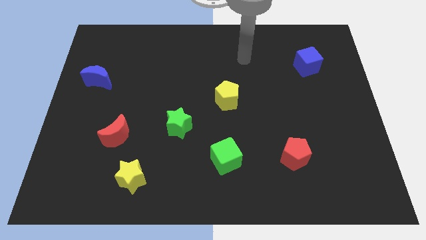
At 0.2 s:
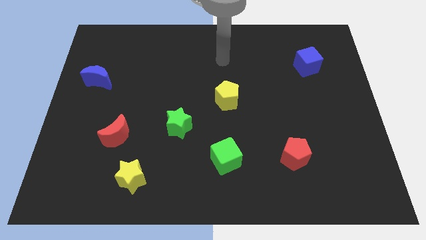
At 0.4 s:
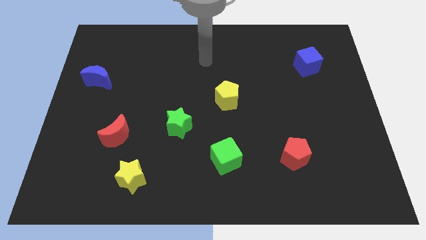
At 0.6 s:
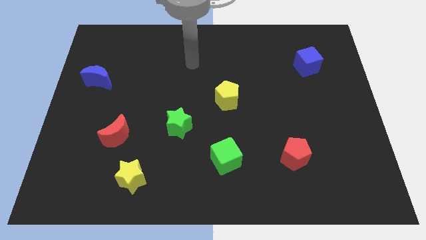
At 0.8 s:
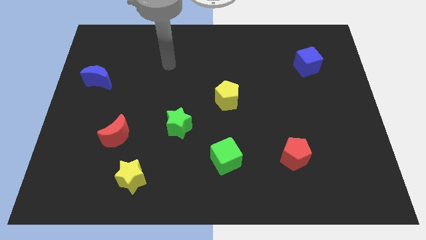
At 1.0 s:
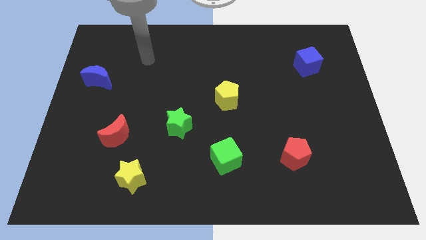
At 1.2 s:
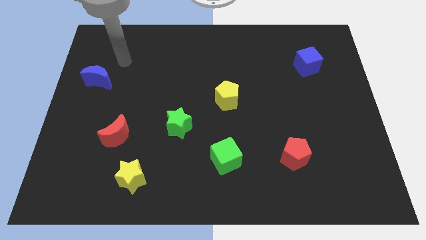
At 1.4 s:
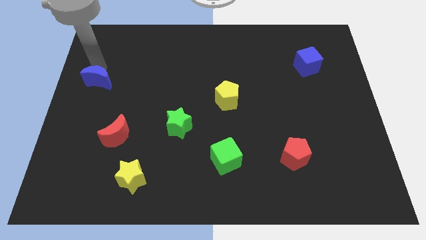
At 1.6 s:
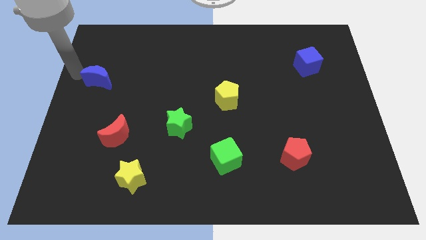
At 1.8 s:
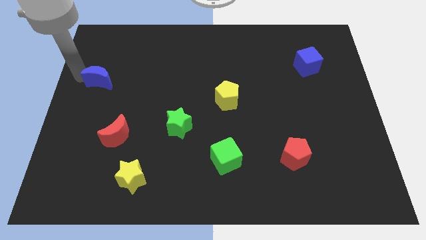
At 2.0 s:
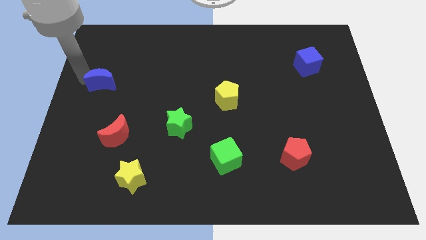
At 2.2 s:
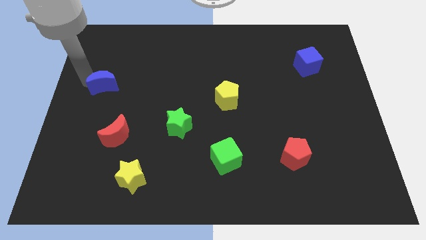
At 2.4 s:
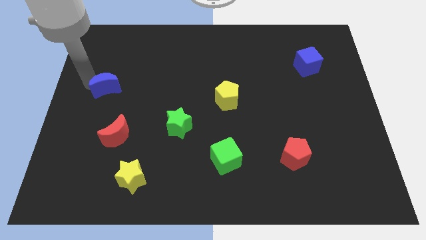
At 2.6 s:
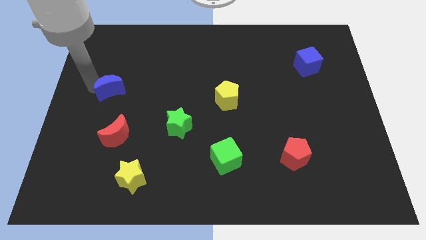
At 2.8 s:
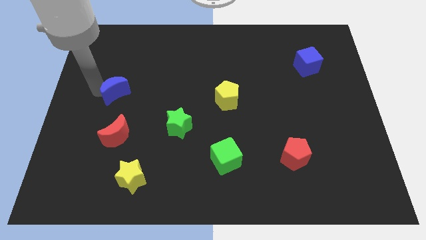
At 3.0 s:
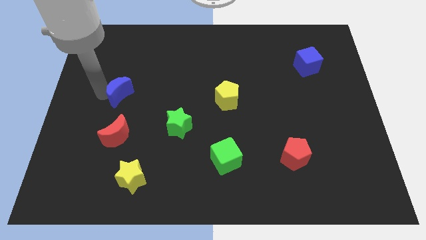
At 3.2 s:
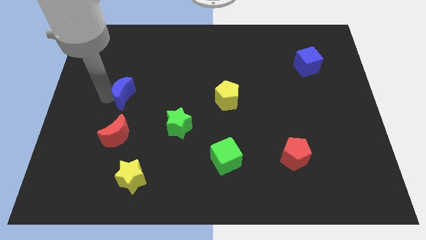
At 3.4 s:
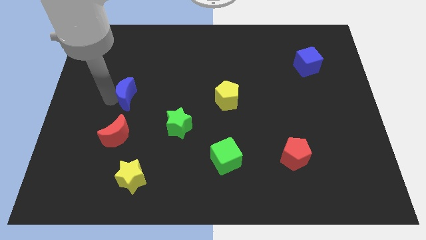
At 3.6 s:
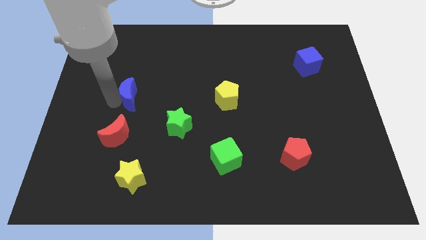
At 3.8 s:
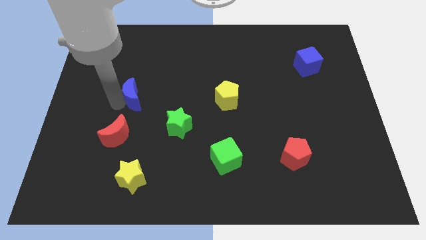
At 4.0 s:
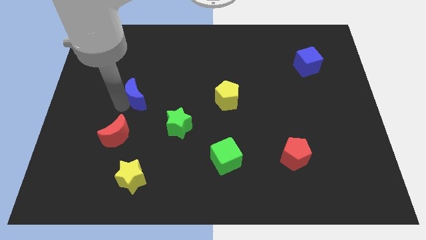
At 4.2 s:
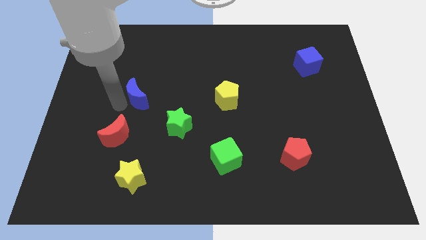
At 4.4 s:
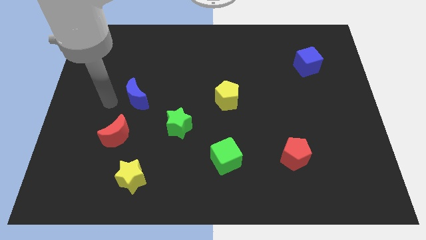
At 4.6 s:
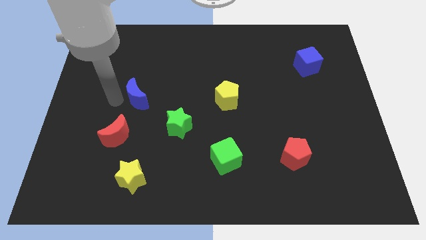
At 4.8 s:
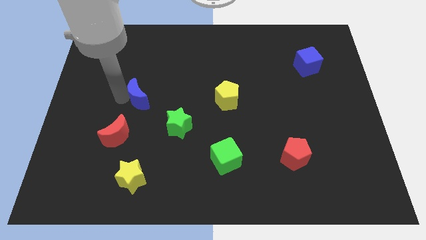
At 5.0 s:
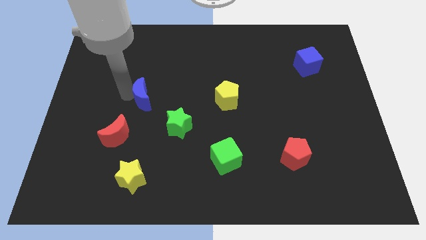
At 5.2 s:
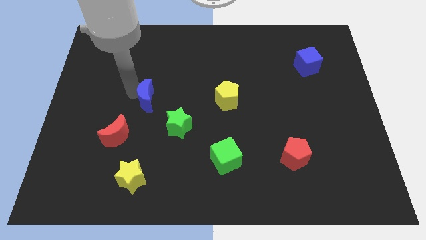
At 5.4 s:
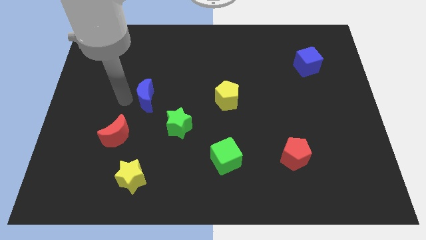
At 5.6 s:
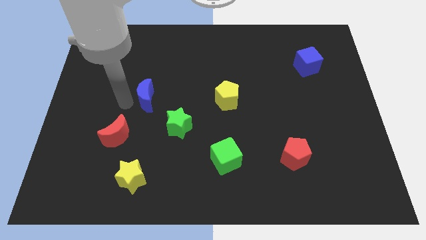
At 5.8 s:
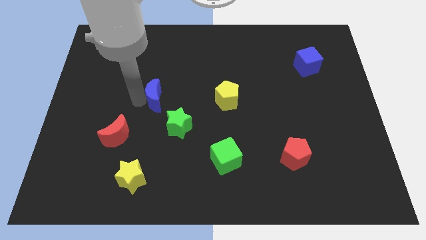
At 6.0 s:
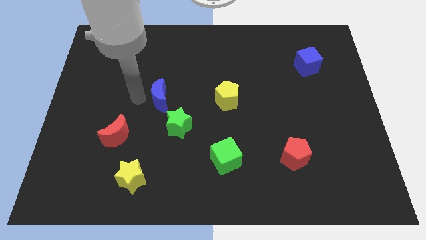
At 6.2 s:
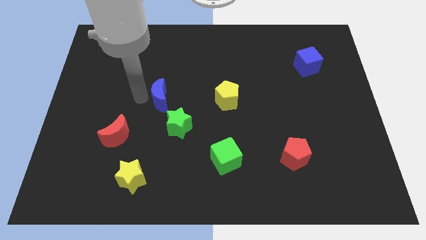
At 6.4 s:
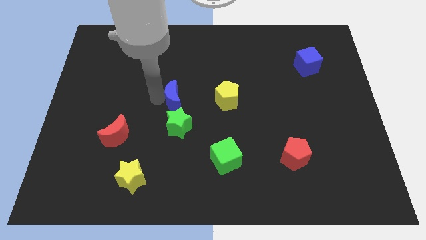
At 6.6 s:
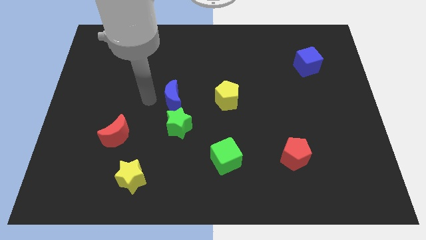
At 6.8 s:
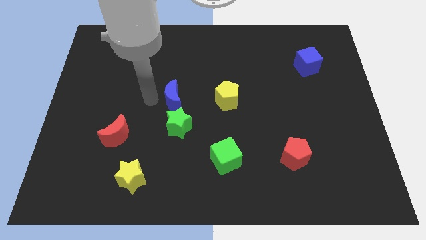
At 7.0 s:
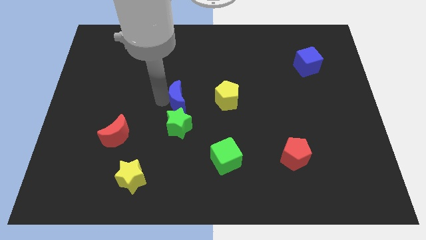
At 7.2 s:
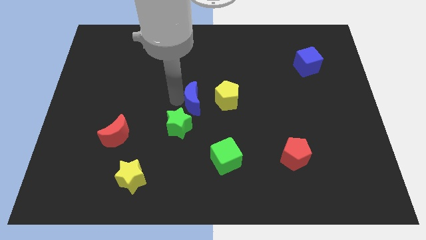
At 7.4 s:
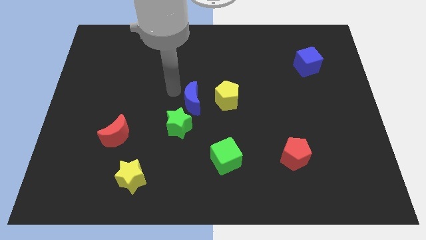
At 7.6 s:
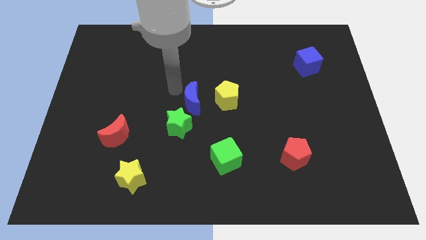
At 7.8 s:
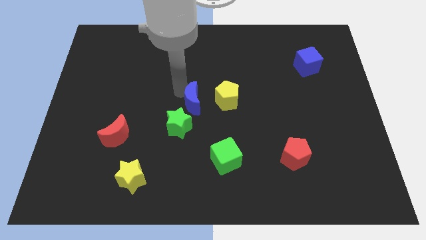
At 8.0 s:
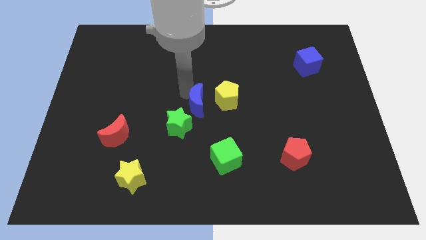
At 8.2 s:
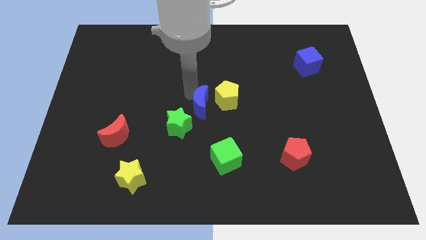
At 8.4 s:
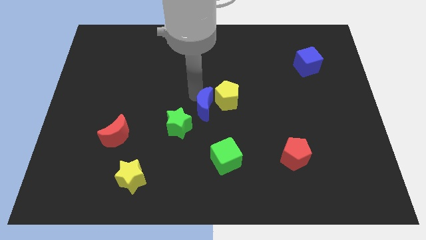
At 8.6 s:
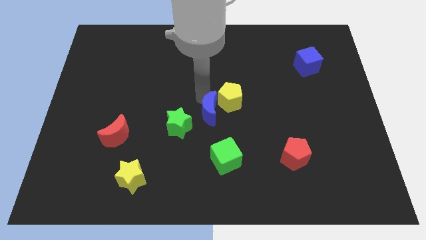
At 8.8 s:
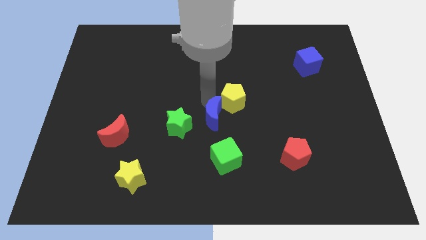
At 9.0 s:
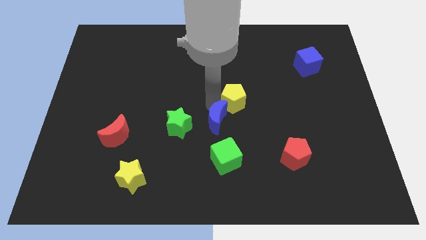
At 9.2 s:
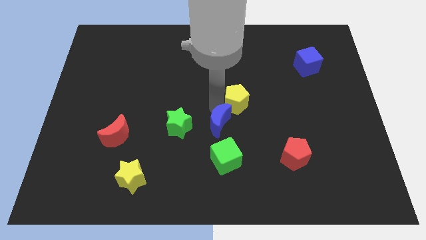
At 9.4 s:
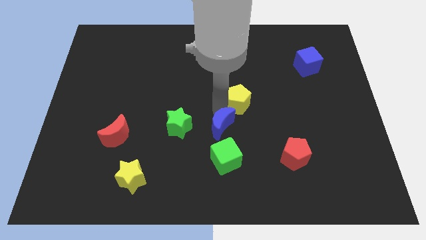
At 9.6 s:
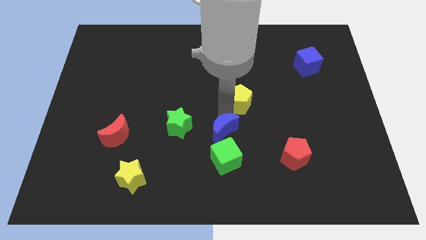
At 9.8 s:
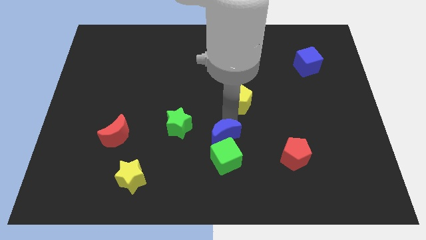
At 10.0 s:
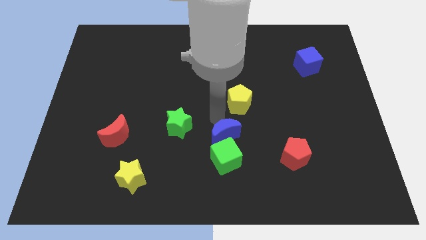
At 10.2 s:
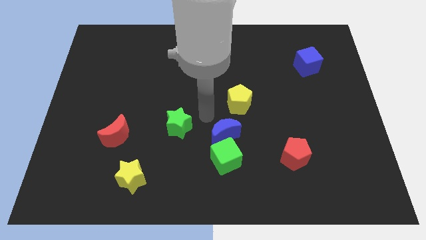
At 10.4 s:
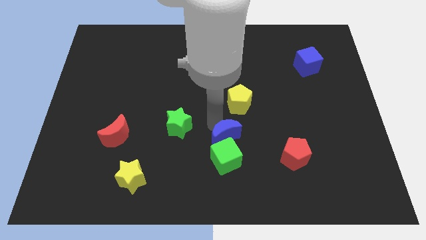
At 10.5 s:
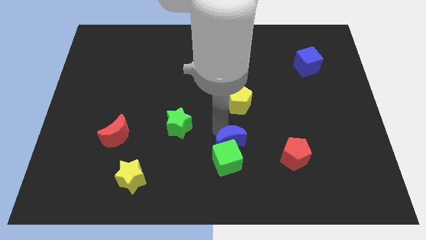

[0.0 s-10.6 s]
push the blue moon just left of the red pentagon

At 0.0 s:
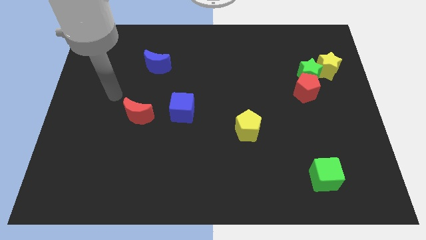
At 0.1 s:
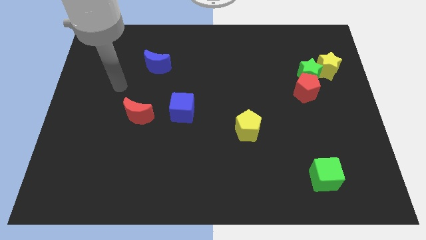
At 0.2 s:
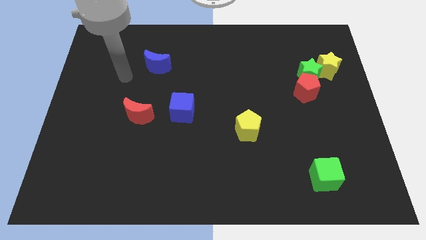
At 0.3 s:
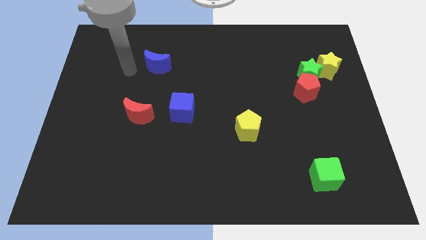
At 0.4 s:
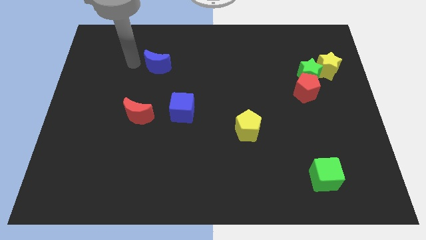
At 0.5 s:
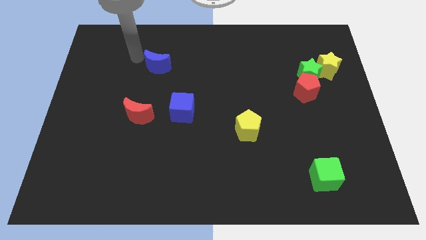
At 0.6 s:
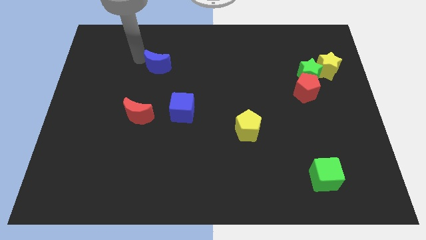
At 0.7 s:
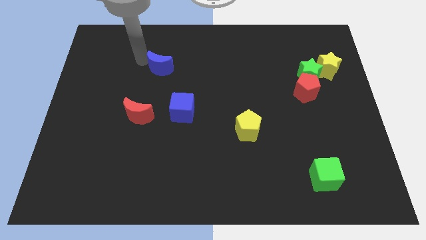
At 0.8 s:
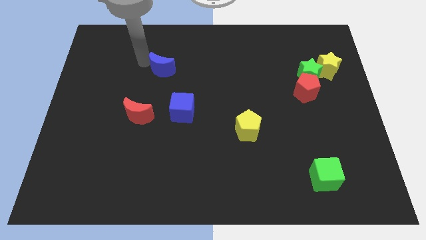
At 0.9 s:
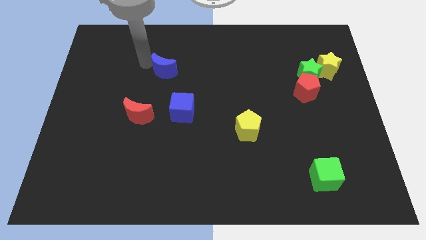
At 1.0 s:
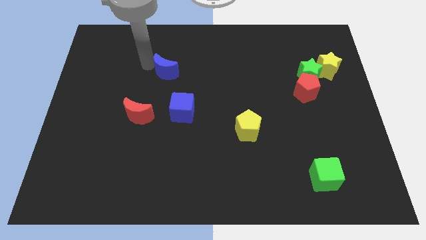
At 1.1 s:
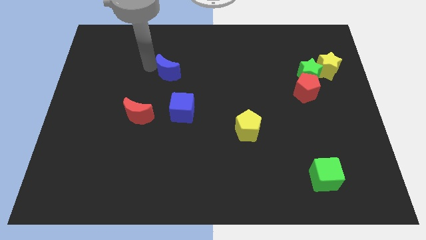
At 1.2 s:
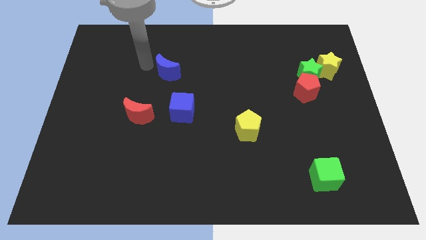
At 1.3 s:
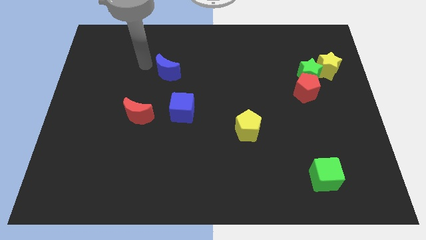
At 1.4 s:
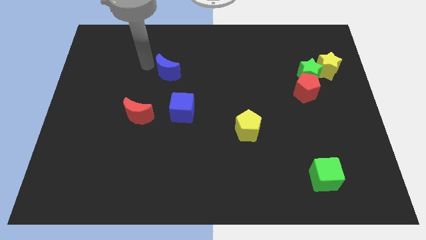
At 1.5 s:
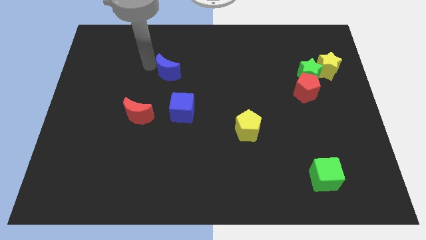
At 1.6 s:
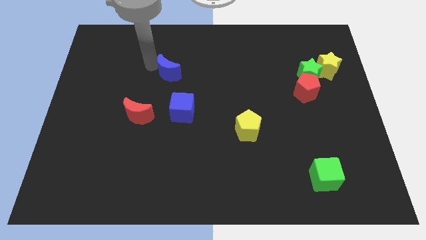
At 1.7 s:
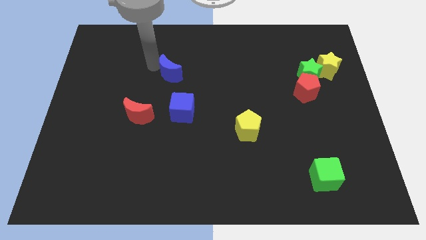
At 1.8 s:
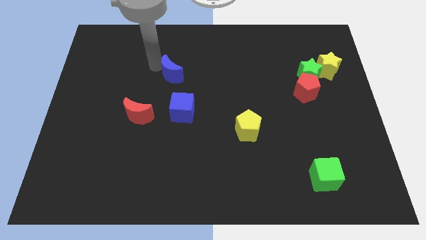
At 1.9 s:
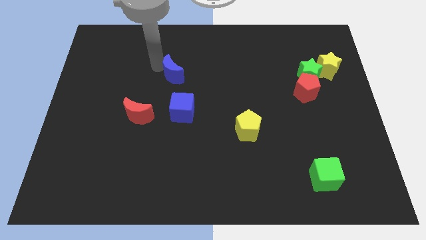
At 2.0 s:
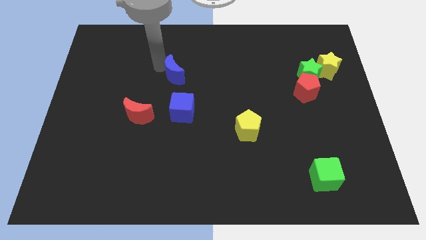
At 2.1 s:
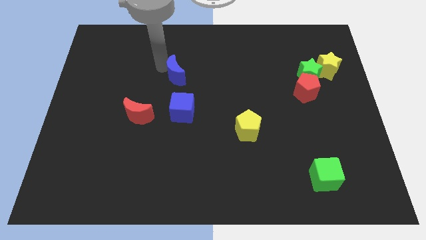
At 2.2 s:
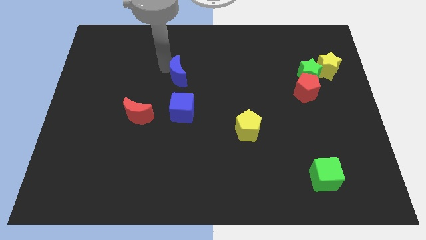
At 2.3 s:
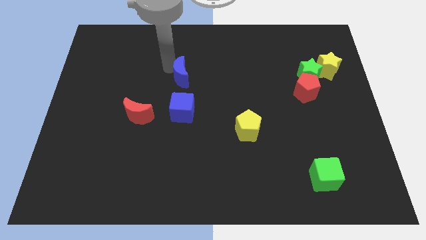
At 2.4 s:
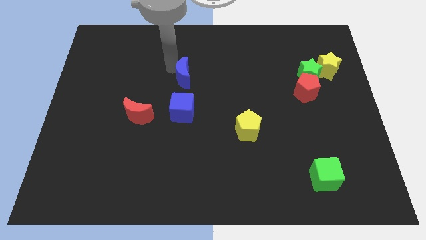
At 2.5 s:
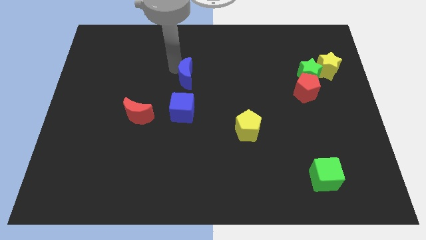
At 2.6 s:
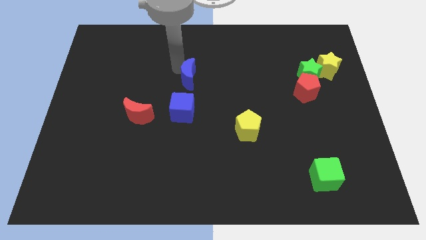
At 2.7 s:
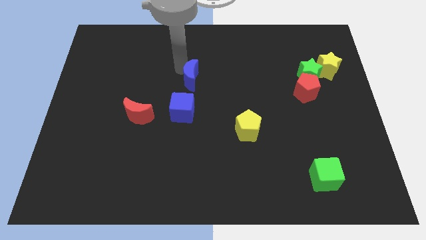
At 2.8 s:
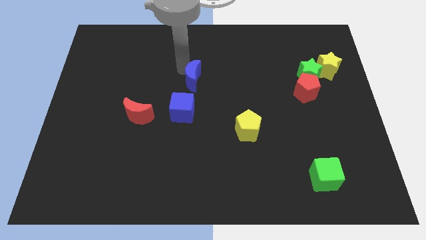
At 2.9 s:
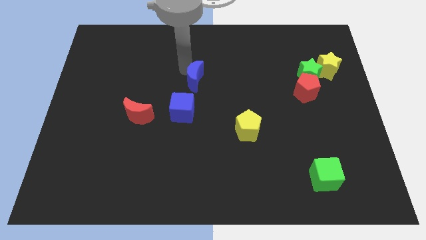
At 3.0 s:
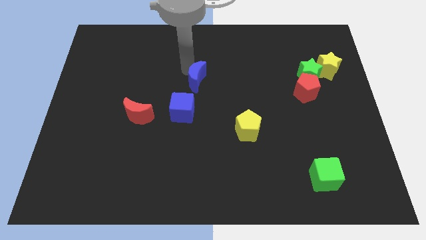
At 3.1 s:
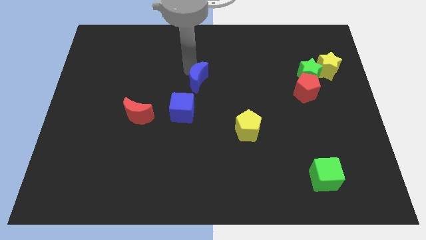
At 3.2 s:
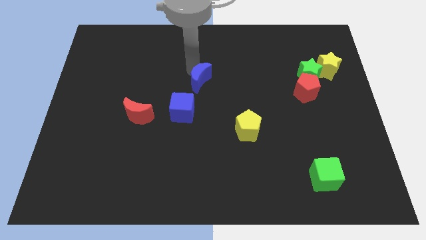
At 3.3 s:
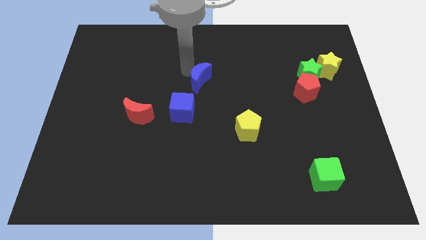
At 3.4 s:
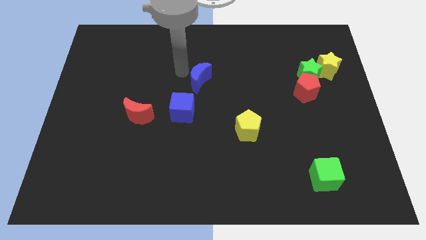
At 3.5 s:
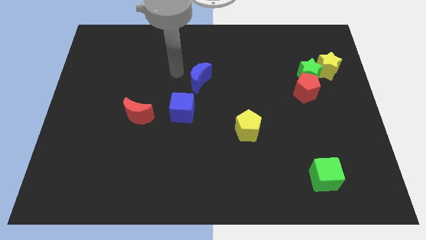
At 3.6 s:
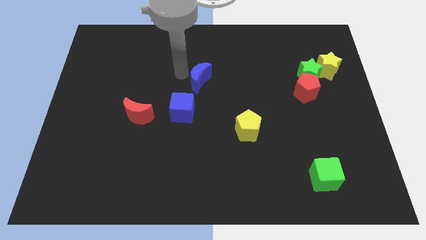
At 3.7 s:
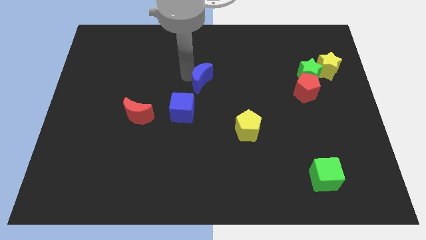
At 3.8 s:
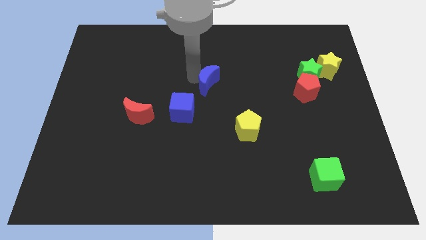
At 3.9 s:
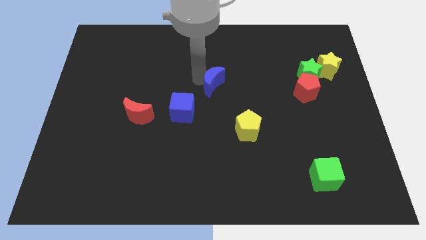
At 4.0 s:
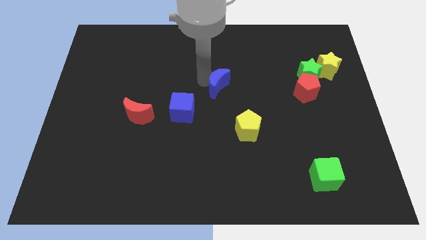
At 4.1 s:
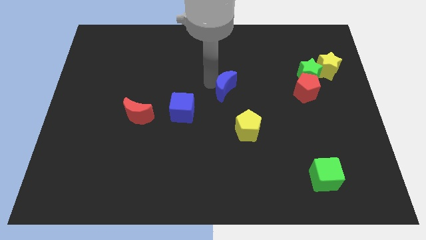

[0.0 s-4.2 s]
push the blue moon to the top side of the yellow pentagon
